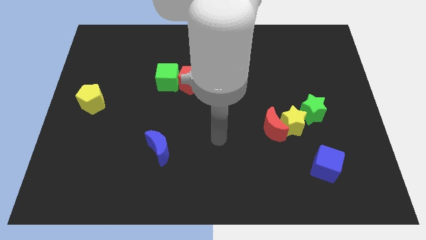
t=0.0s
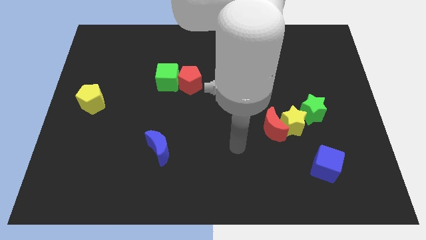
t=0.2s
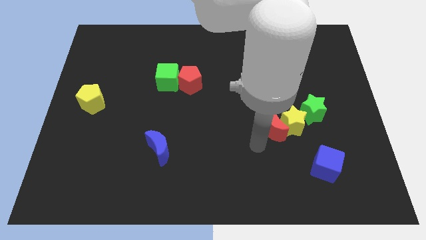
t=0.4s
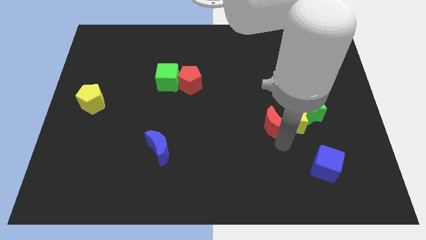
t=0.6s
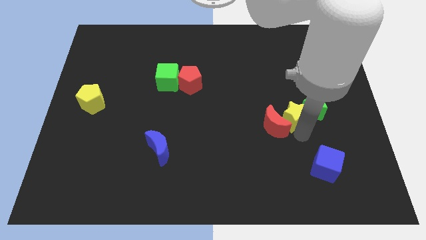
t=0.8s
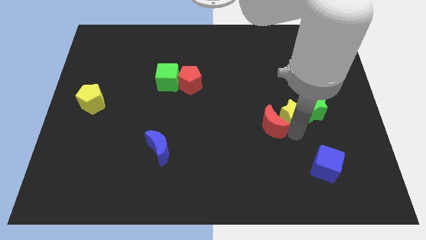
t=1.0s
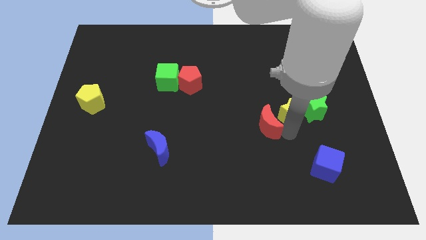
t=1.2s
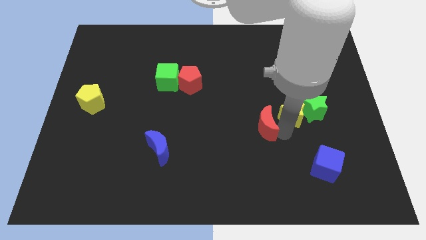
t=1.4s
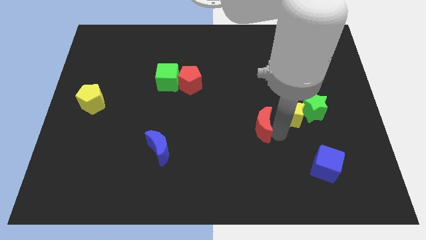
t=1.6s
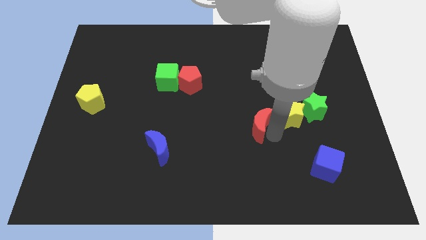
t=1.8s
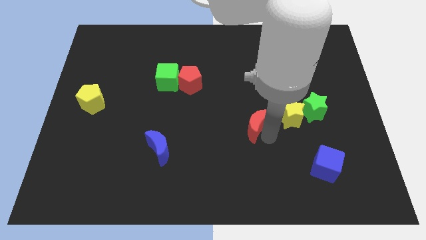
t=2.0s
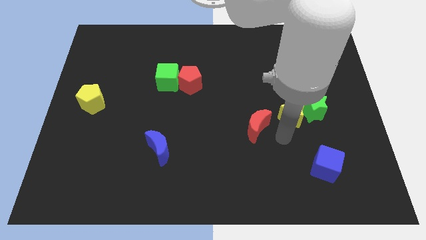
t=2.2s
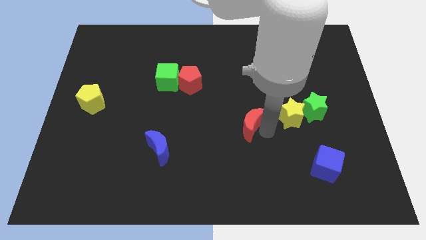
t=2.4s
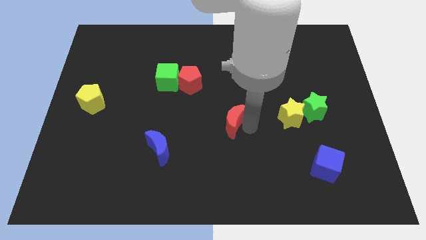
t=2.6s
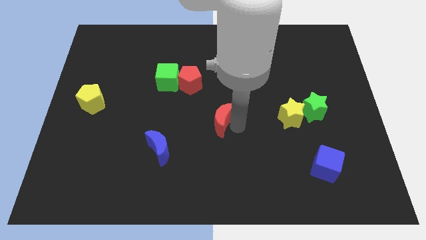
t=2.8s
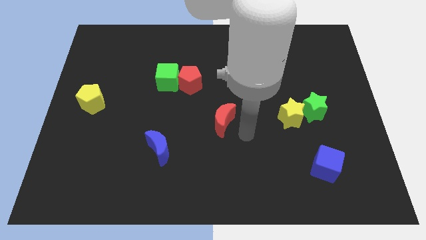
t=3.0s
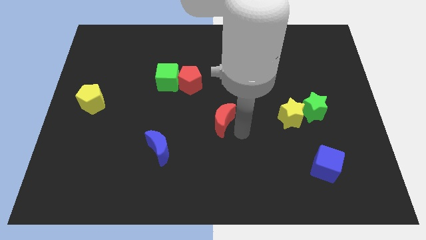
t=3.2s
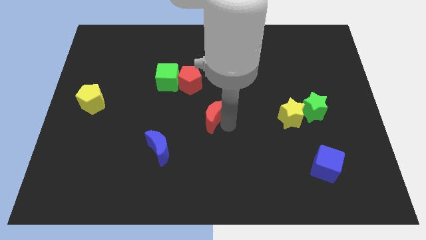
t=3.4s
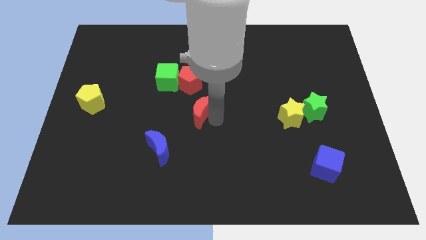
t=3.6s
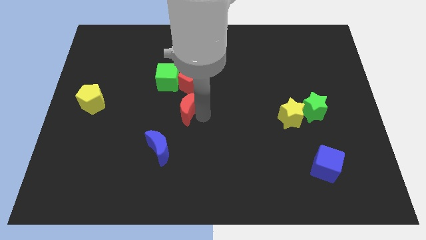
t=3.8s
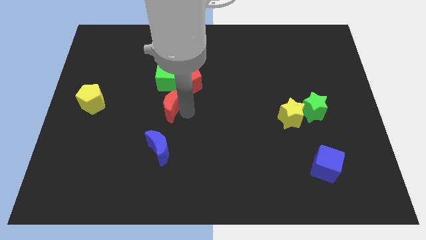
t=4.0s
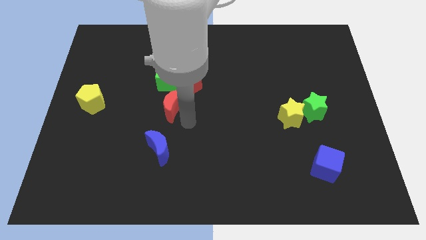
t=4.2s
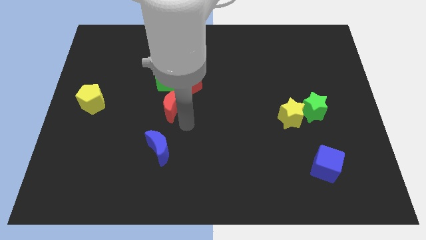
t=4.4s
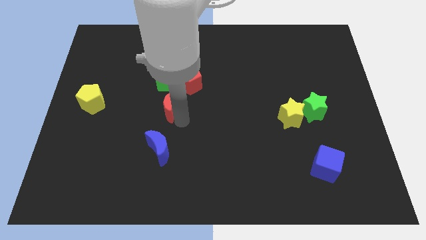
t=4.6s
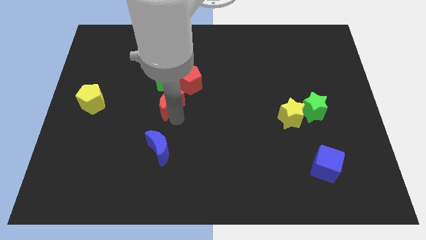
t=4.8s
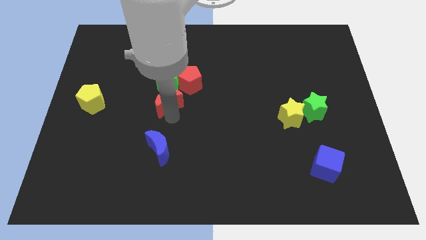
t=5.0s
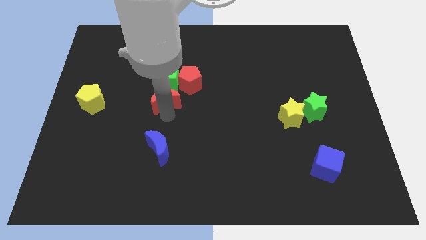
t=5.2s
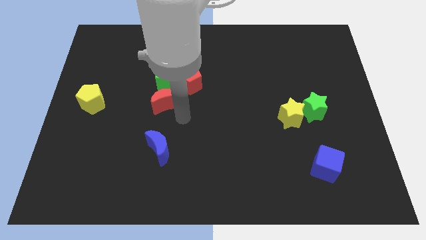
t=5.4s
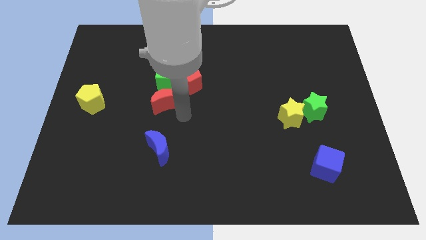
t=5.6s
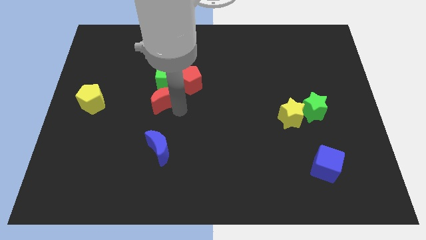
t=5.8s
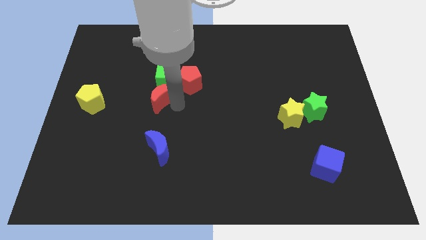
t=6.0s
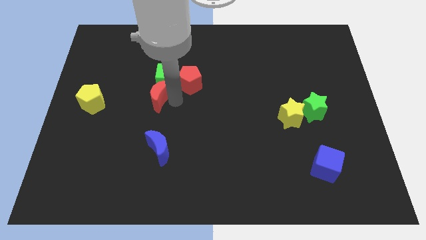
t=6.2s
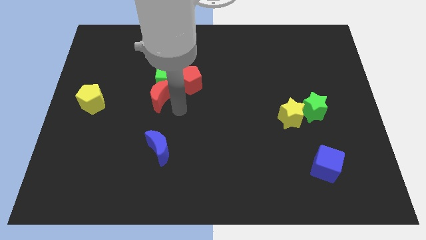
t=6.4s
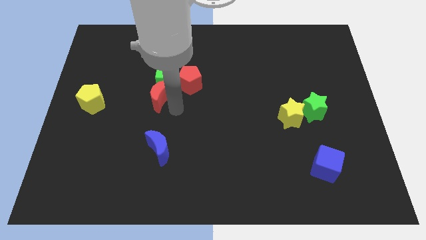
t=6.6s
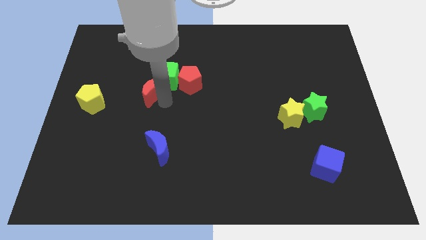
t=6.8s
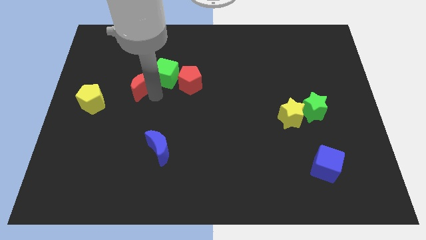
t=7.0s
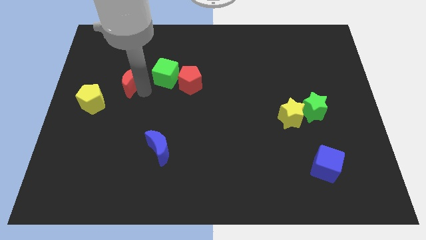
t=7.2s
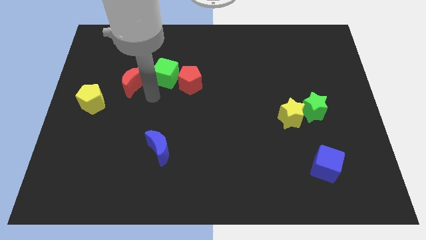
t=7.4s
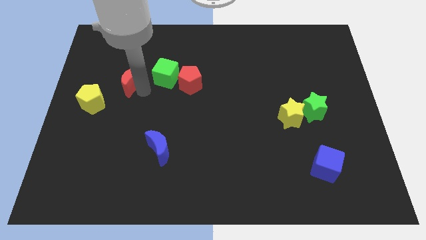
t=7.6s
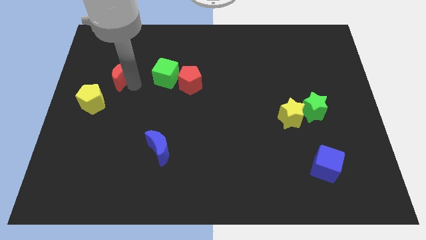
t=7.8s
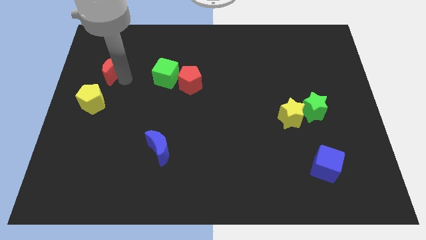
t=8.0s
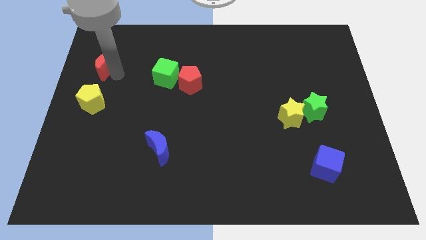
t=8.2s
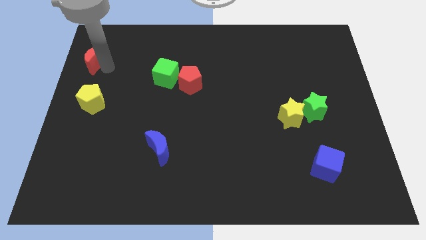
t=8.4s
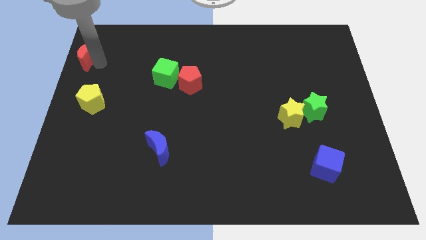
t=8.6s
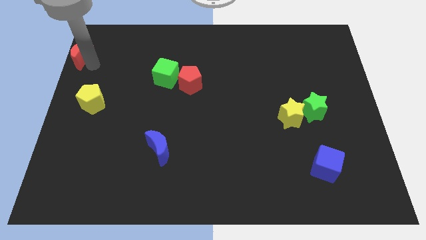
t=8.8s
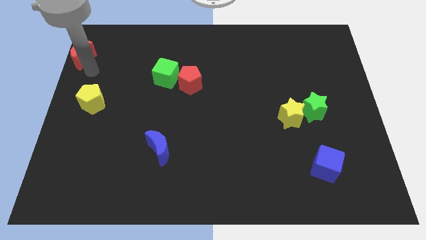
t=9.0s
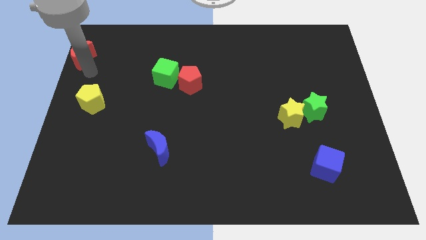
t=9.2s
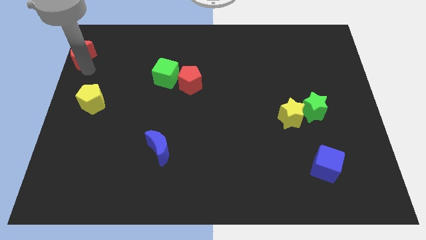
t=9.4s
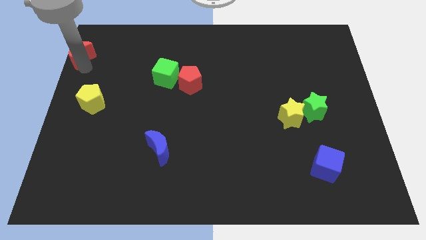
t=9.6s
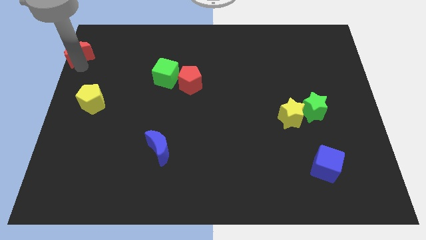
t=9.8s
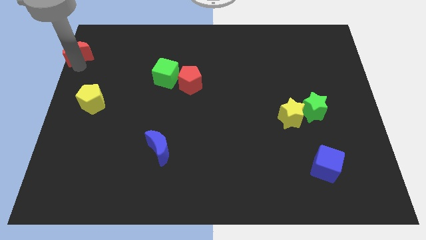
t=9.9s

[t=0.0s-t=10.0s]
slide the red moon to the top left corner

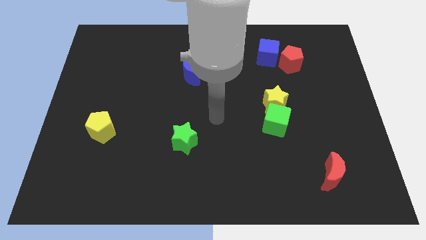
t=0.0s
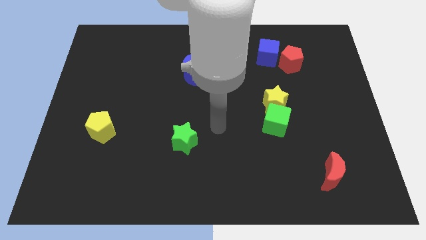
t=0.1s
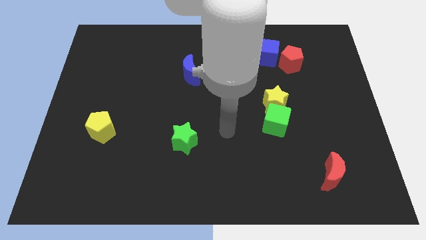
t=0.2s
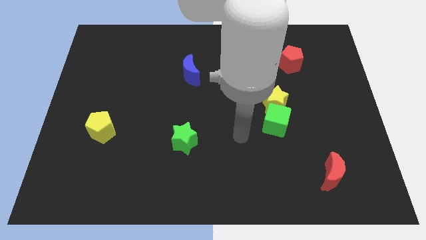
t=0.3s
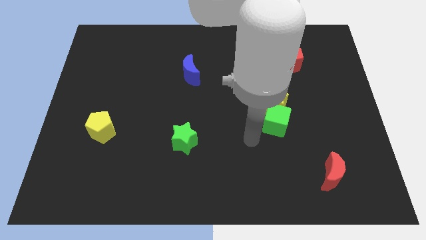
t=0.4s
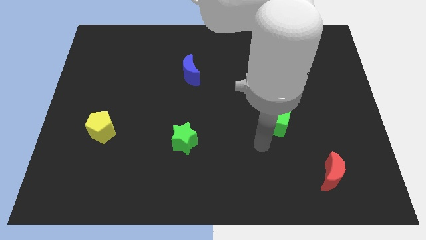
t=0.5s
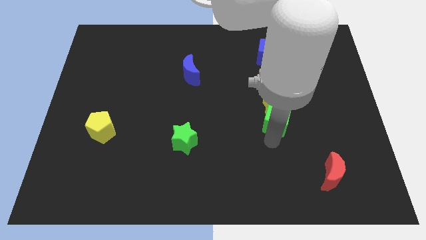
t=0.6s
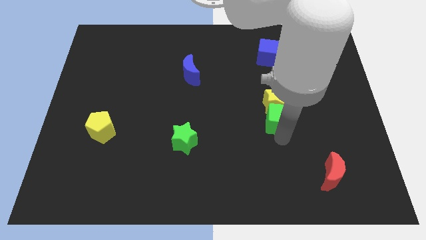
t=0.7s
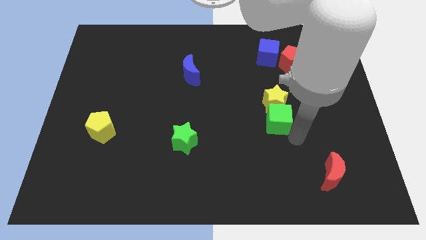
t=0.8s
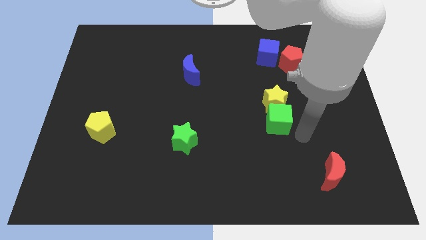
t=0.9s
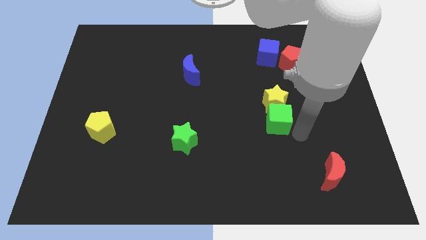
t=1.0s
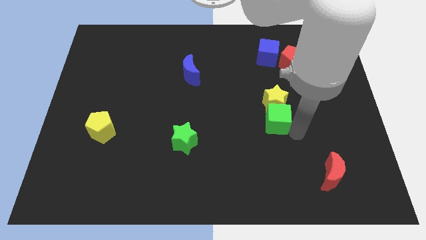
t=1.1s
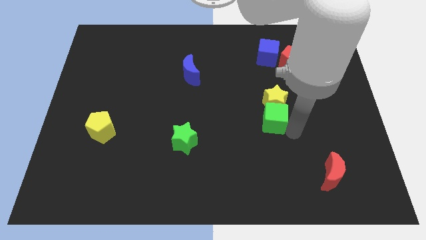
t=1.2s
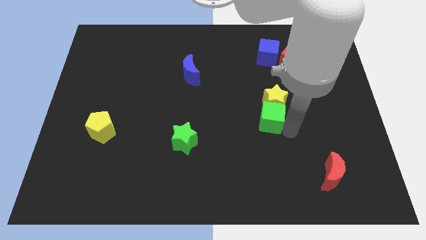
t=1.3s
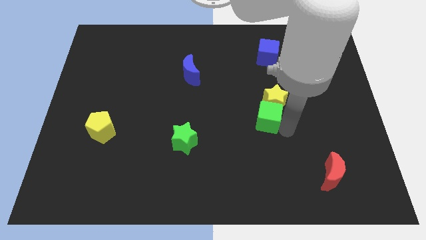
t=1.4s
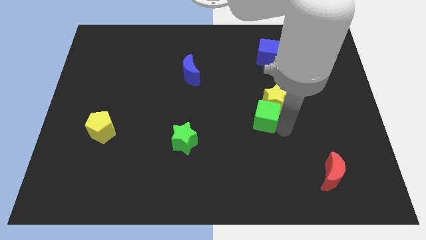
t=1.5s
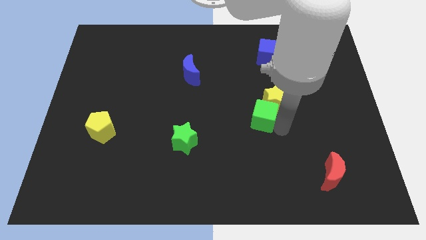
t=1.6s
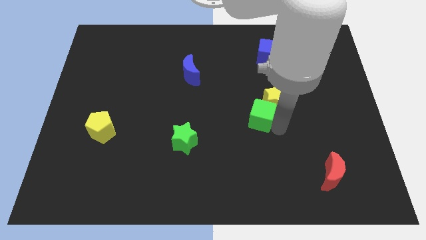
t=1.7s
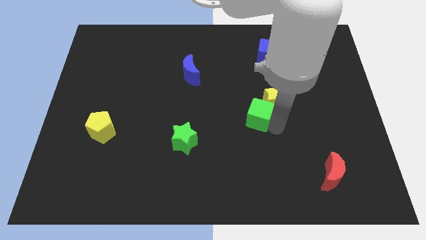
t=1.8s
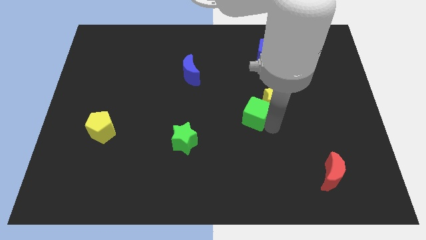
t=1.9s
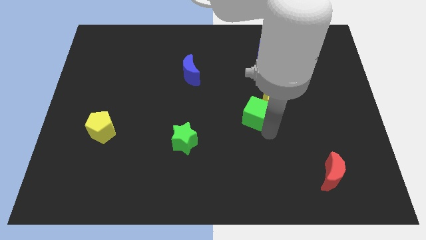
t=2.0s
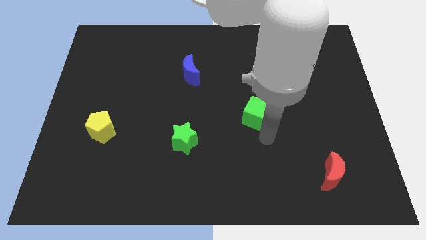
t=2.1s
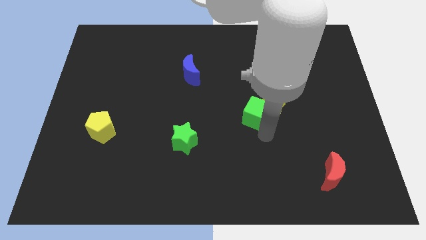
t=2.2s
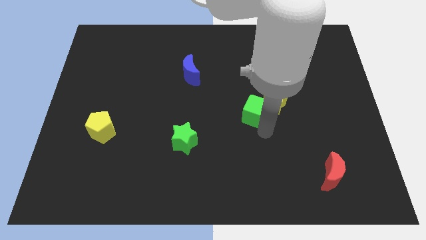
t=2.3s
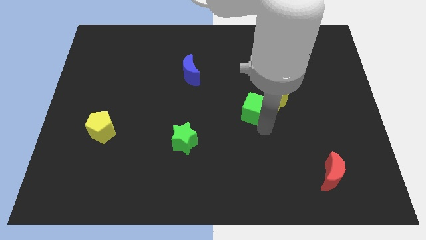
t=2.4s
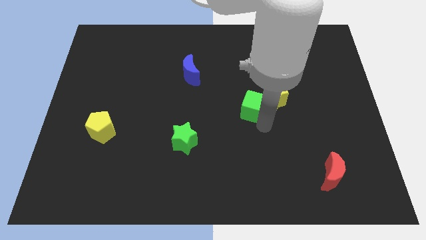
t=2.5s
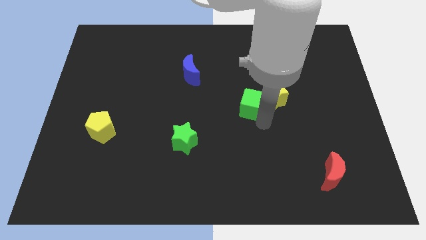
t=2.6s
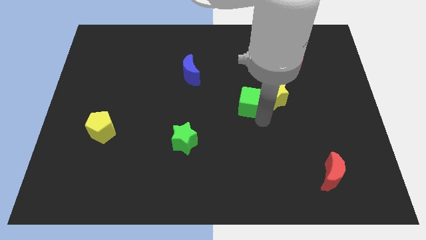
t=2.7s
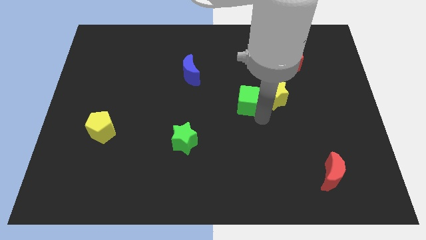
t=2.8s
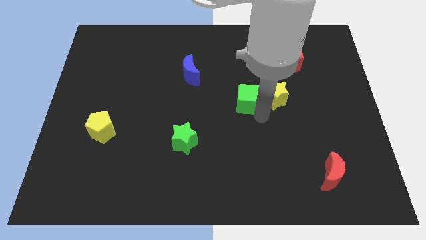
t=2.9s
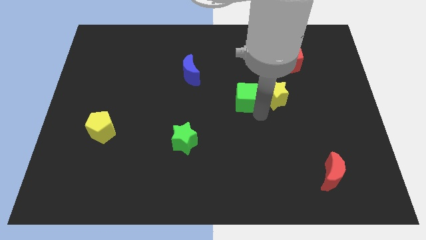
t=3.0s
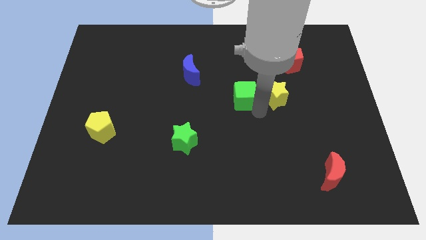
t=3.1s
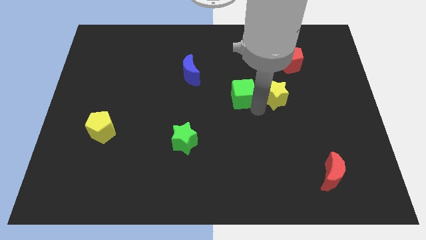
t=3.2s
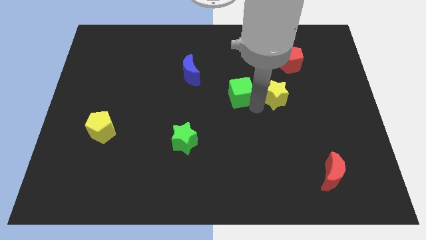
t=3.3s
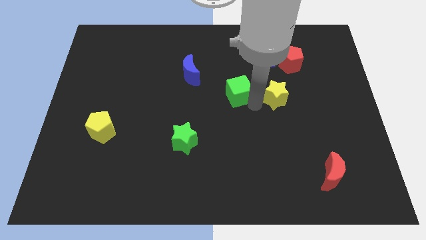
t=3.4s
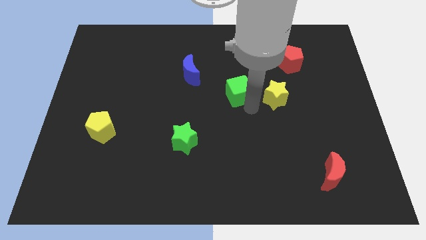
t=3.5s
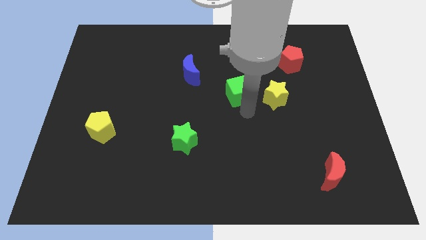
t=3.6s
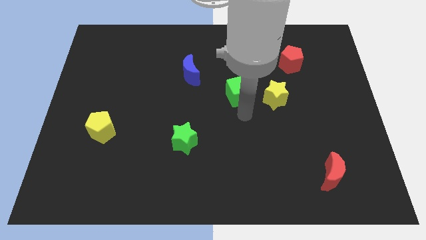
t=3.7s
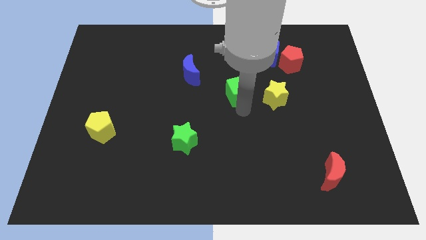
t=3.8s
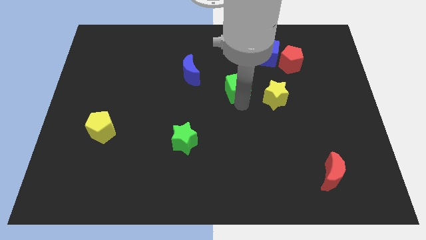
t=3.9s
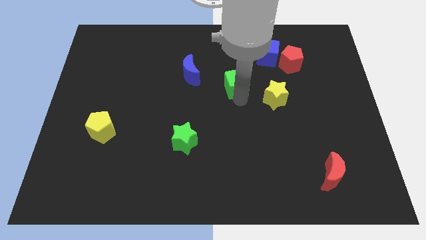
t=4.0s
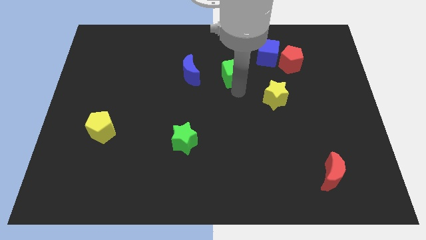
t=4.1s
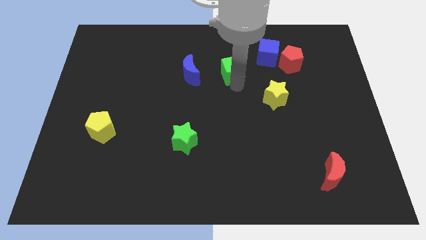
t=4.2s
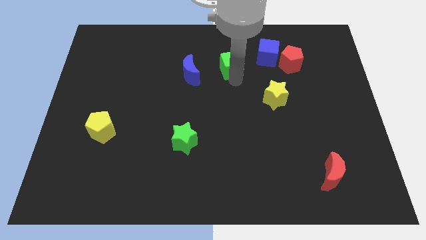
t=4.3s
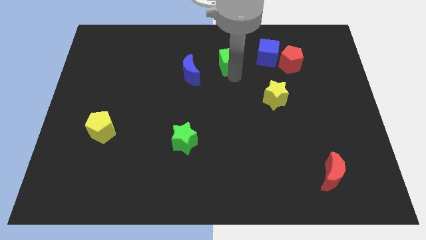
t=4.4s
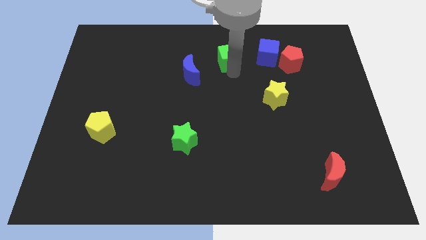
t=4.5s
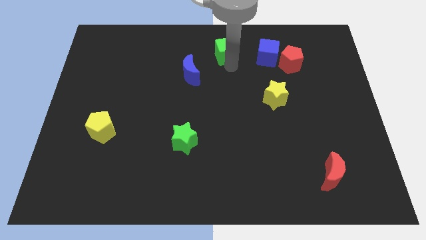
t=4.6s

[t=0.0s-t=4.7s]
push the green cube to the top side
